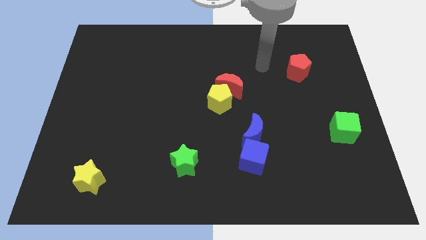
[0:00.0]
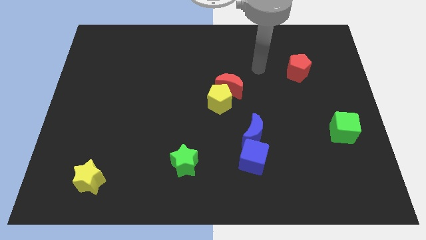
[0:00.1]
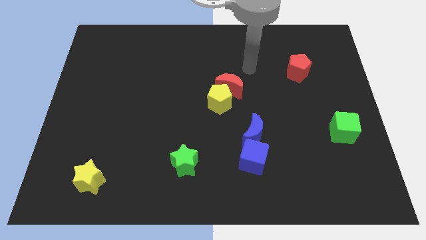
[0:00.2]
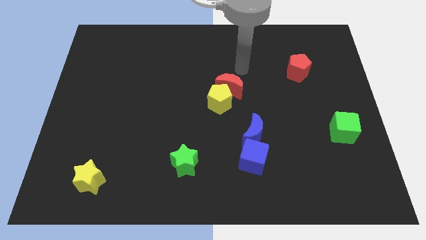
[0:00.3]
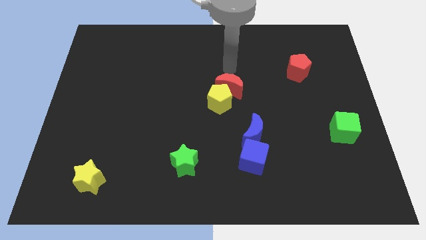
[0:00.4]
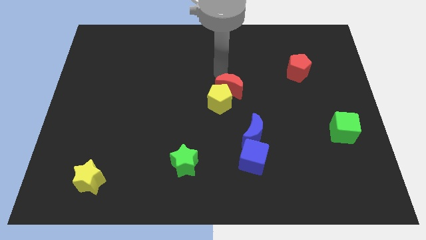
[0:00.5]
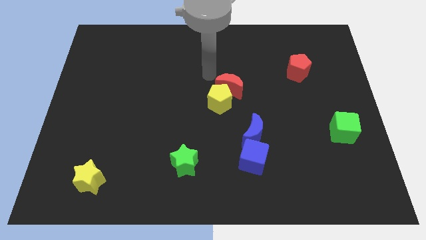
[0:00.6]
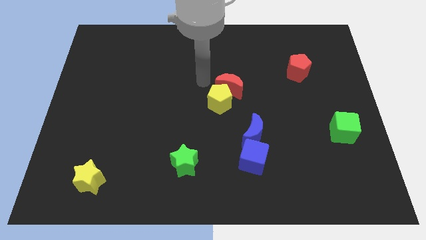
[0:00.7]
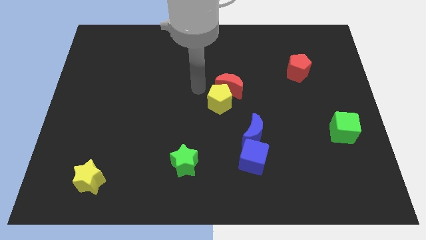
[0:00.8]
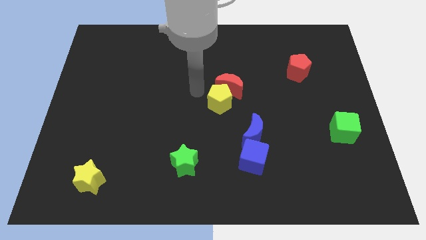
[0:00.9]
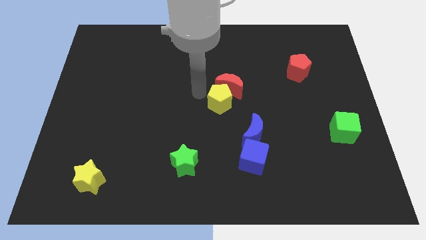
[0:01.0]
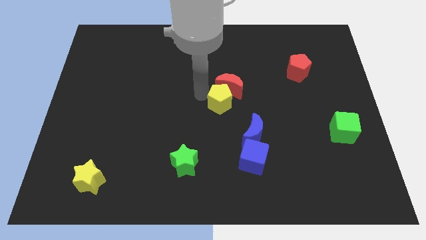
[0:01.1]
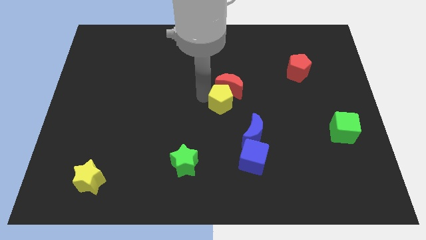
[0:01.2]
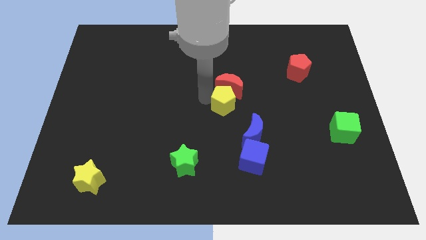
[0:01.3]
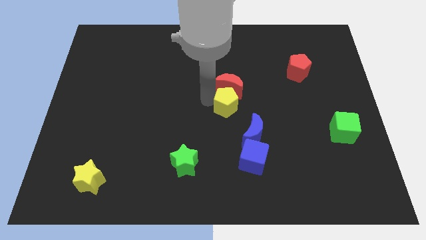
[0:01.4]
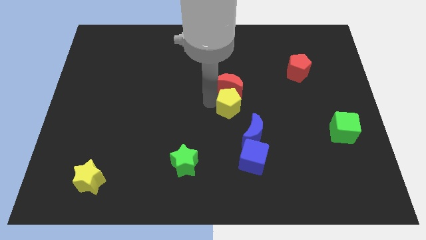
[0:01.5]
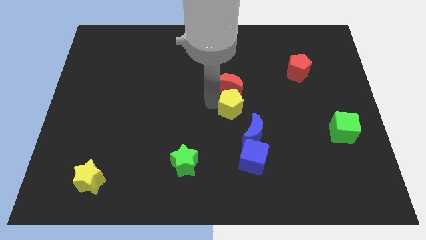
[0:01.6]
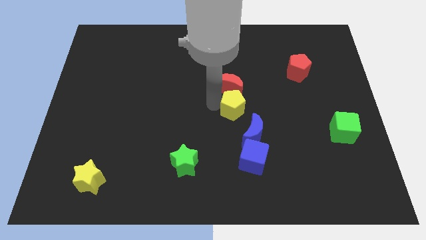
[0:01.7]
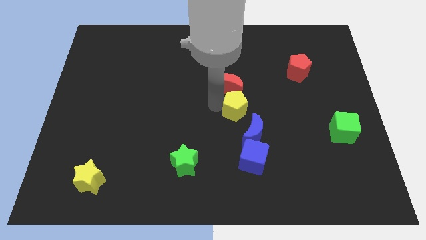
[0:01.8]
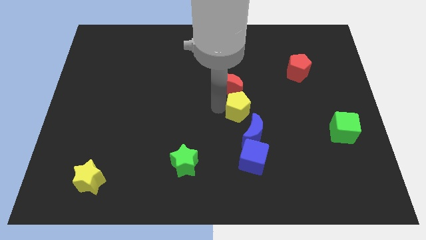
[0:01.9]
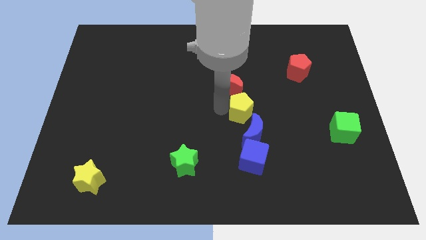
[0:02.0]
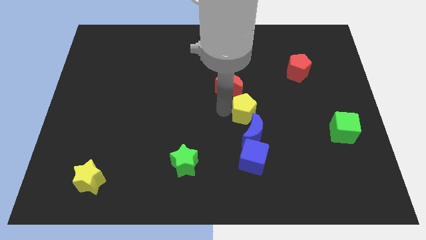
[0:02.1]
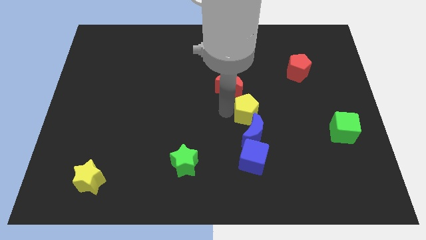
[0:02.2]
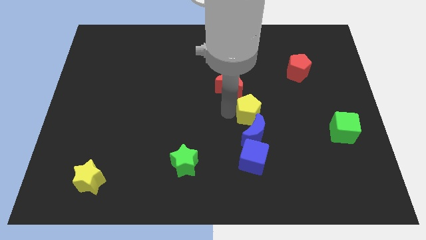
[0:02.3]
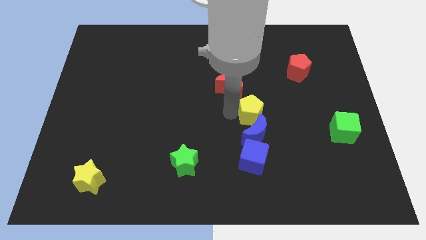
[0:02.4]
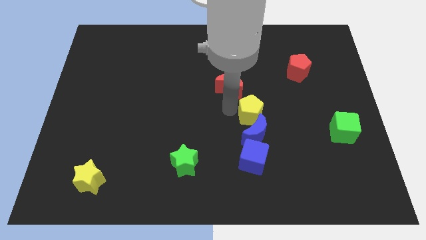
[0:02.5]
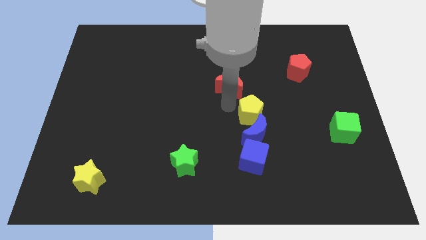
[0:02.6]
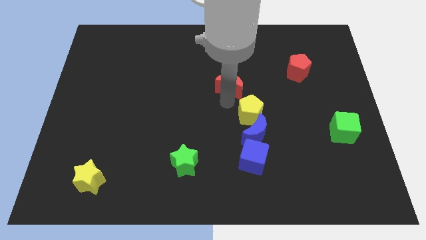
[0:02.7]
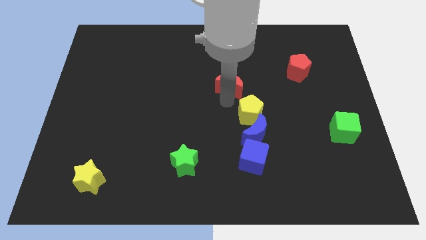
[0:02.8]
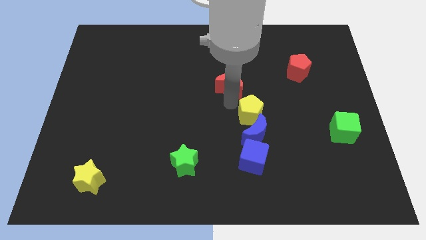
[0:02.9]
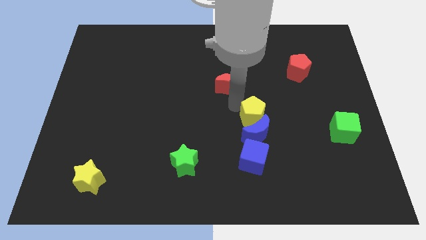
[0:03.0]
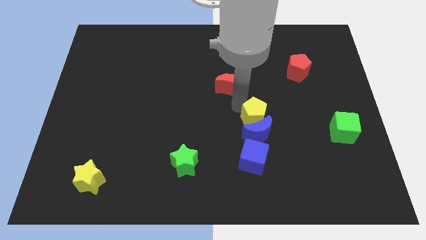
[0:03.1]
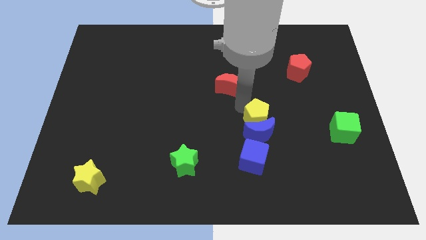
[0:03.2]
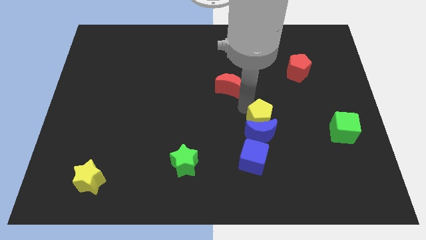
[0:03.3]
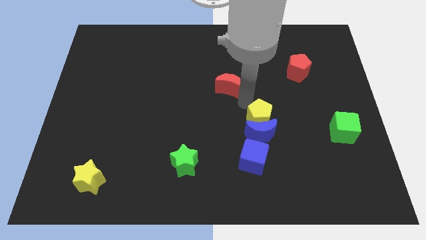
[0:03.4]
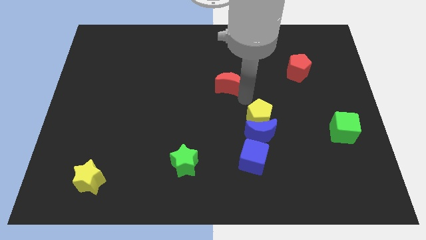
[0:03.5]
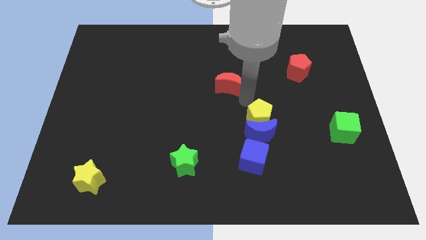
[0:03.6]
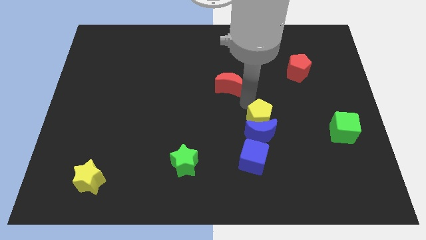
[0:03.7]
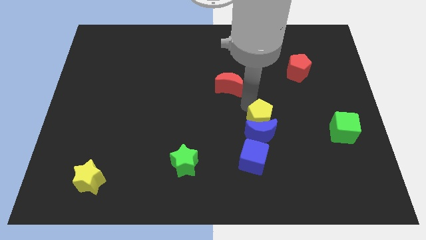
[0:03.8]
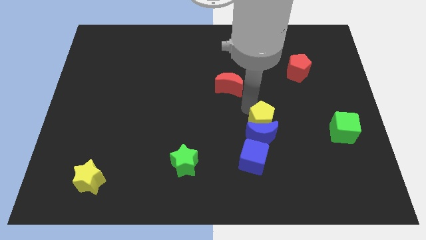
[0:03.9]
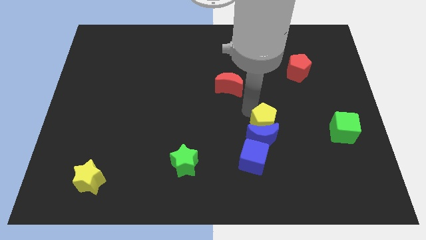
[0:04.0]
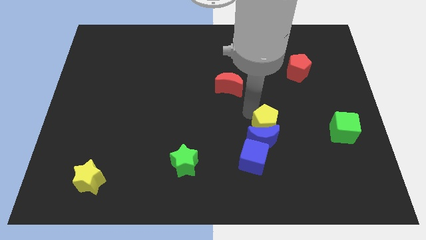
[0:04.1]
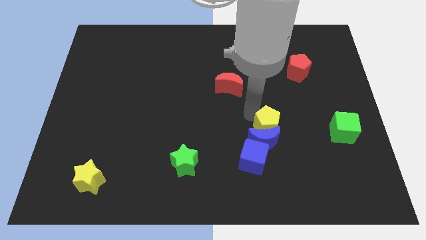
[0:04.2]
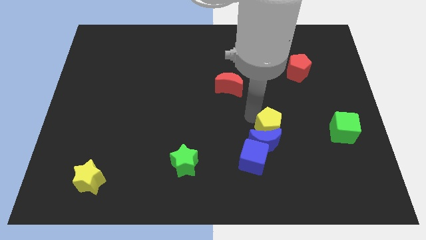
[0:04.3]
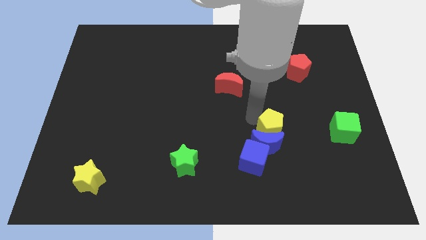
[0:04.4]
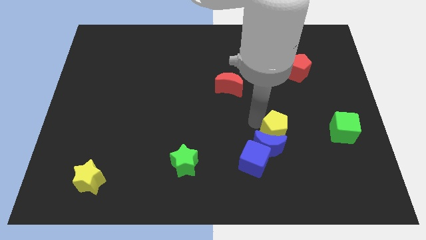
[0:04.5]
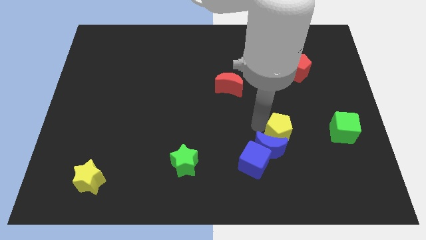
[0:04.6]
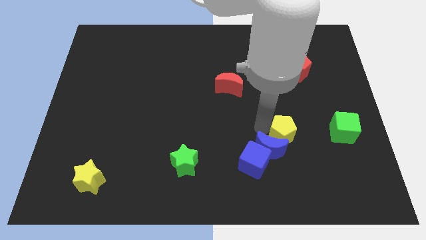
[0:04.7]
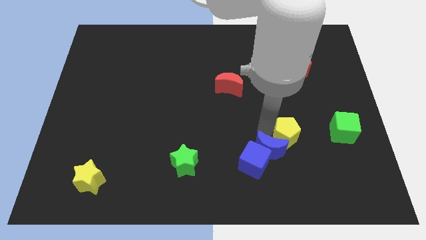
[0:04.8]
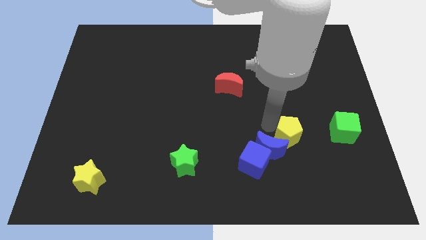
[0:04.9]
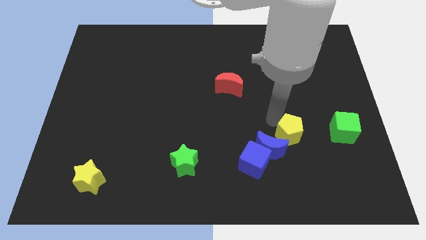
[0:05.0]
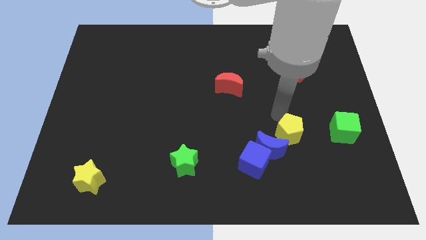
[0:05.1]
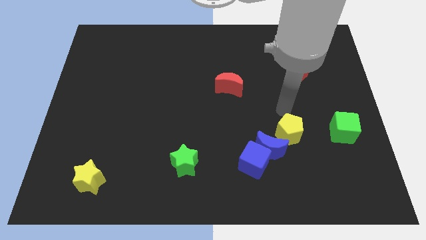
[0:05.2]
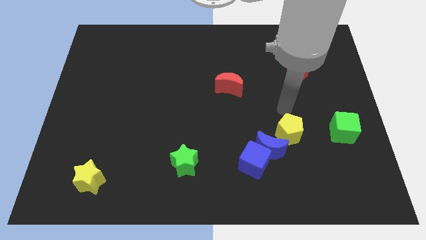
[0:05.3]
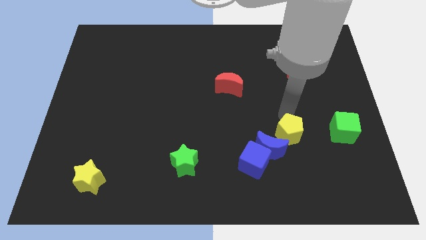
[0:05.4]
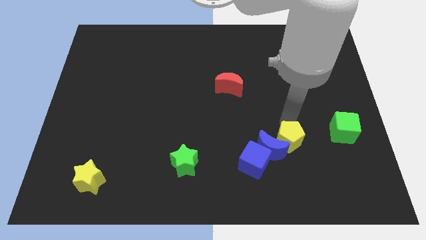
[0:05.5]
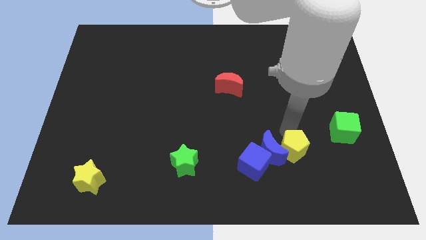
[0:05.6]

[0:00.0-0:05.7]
push the yellow pentagon to the bottom right side of the blue moon

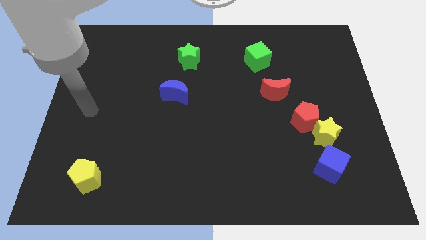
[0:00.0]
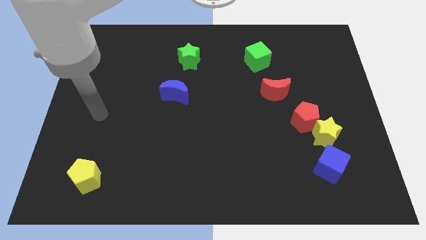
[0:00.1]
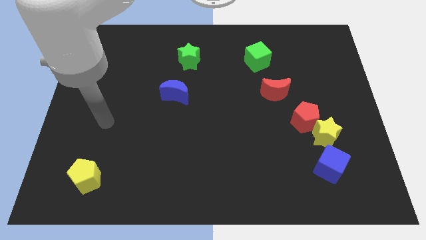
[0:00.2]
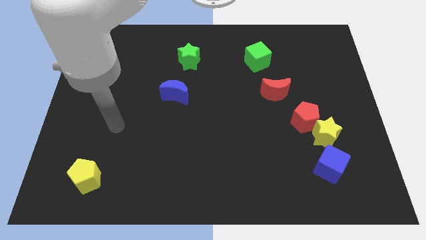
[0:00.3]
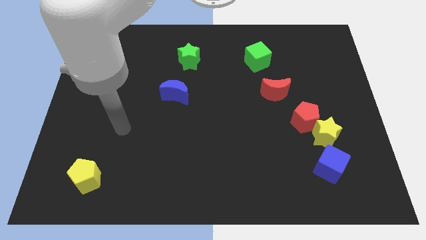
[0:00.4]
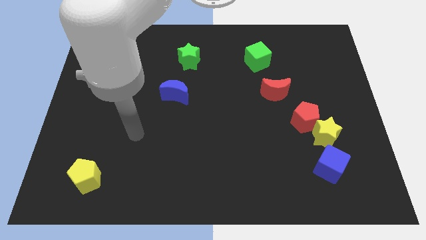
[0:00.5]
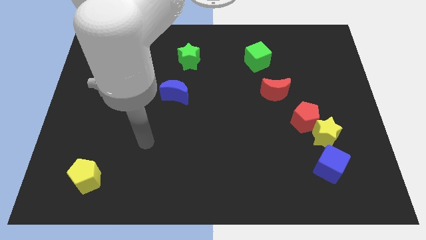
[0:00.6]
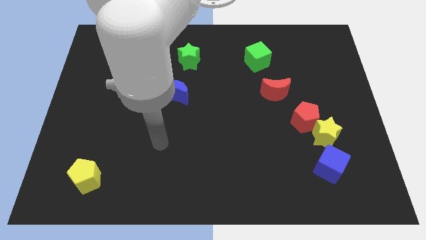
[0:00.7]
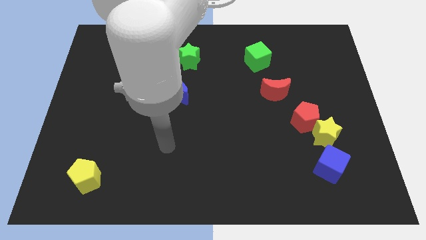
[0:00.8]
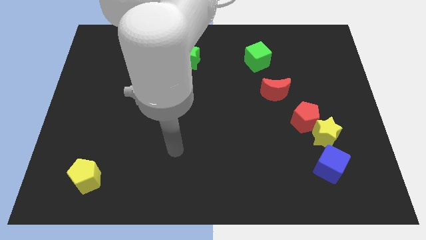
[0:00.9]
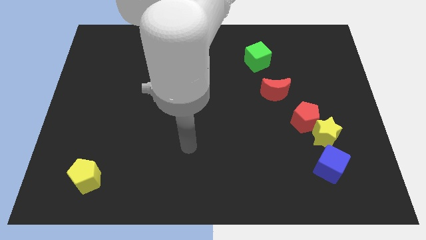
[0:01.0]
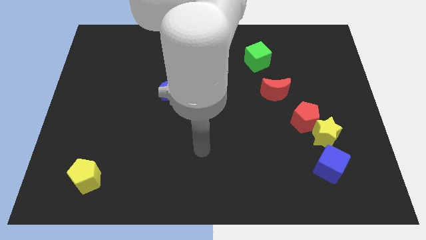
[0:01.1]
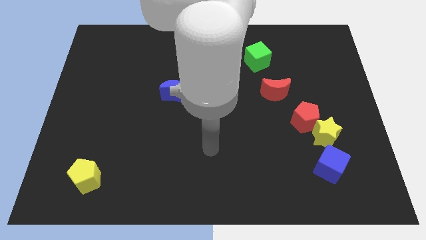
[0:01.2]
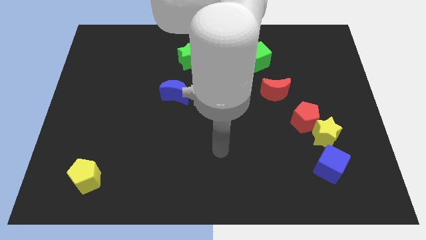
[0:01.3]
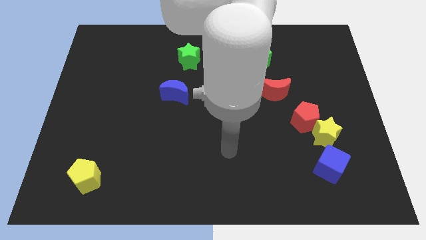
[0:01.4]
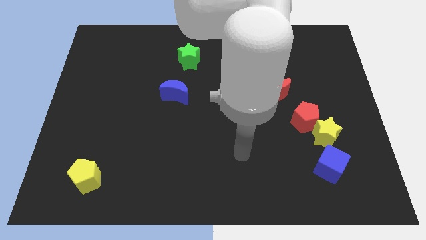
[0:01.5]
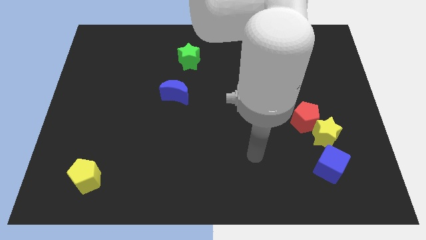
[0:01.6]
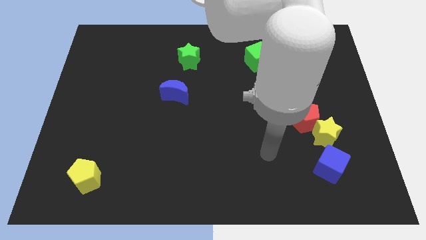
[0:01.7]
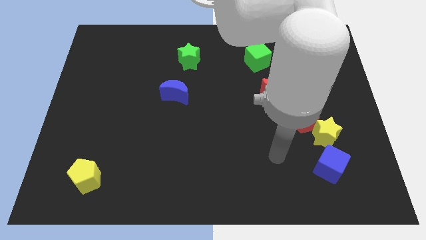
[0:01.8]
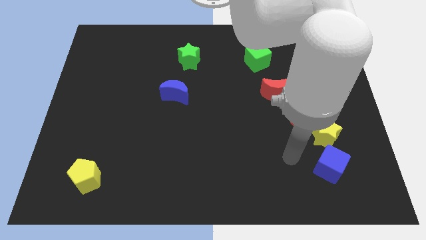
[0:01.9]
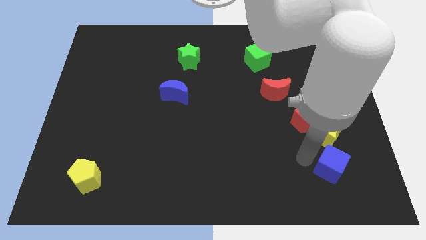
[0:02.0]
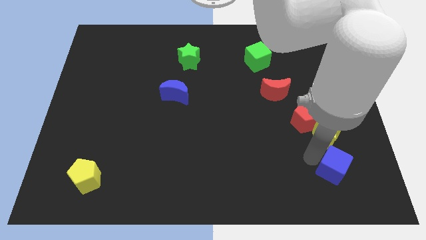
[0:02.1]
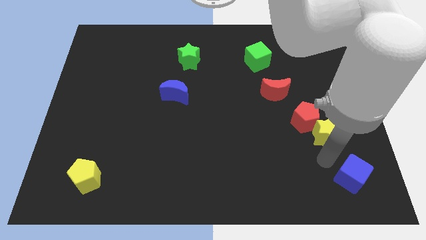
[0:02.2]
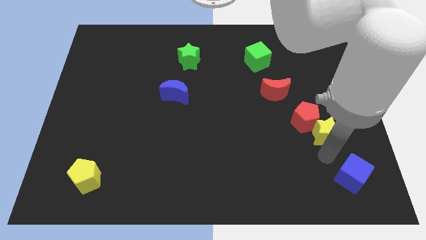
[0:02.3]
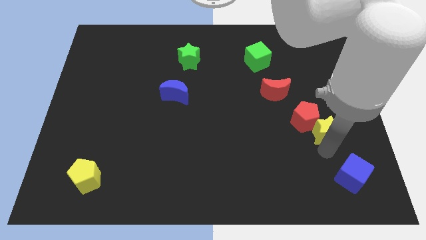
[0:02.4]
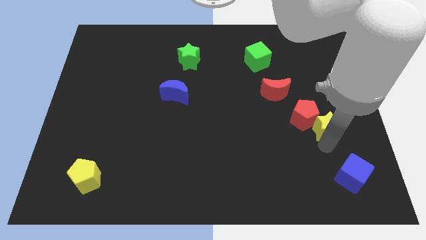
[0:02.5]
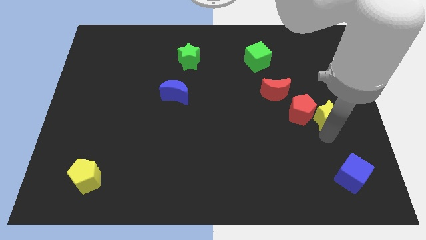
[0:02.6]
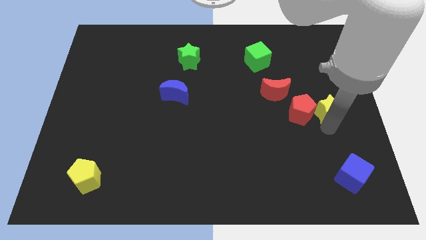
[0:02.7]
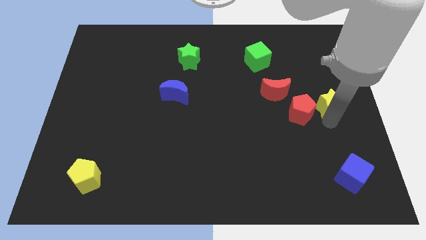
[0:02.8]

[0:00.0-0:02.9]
put the yellow star to the right side of the red moon
